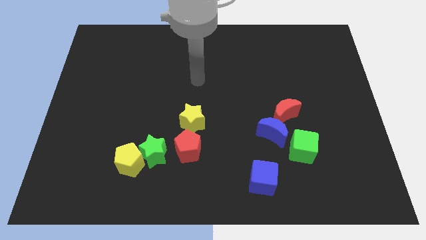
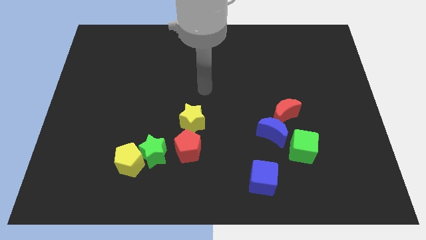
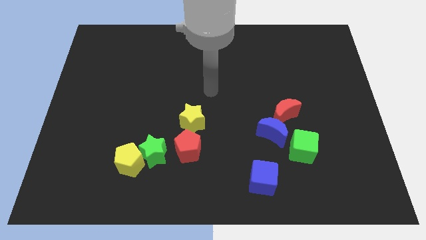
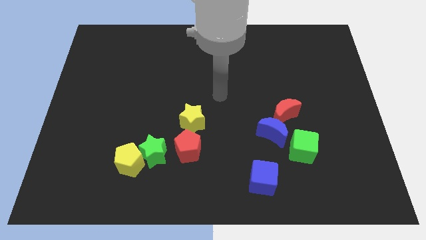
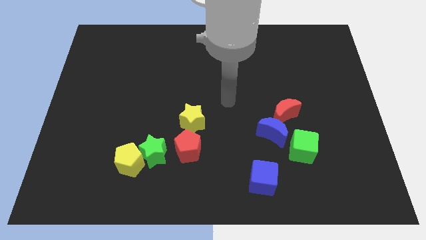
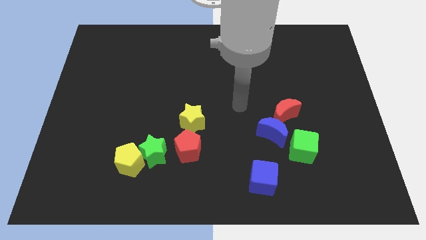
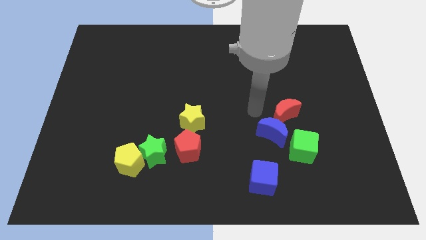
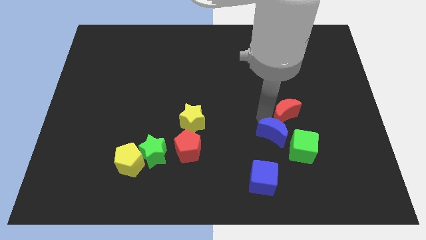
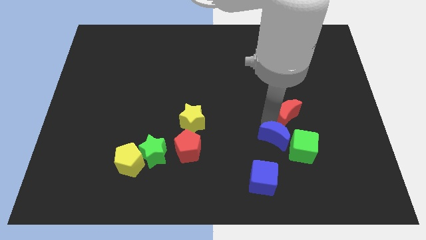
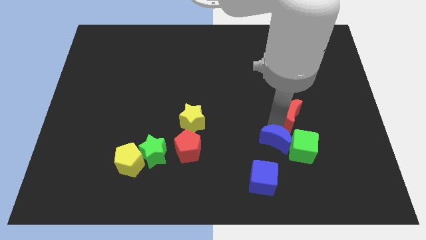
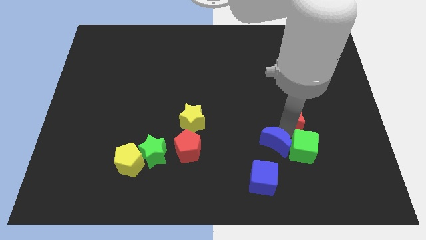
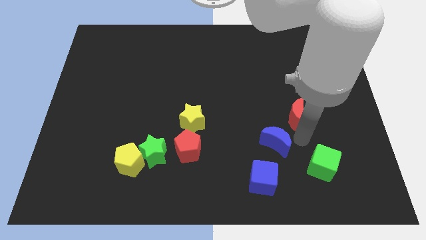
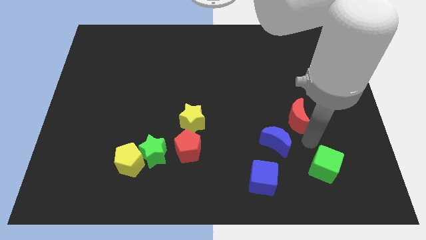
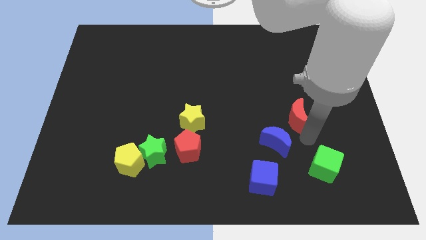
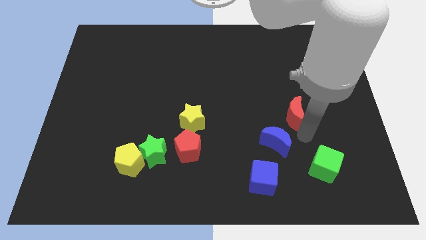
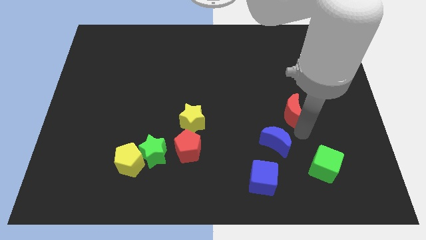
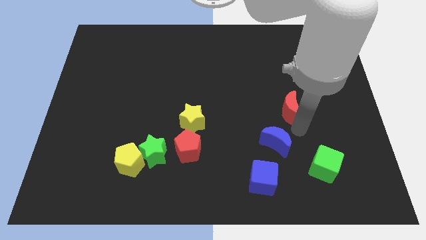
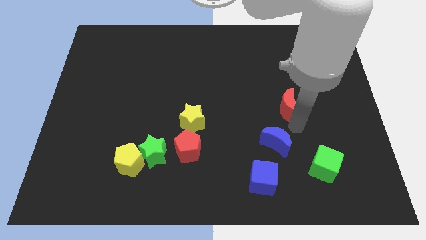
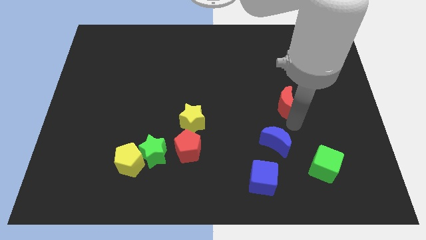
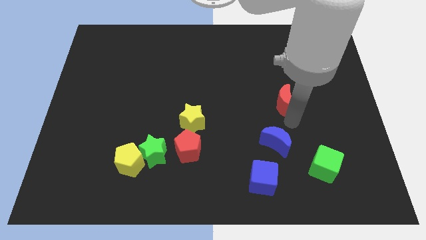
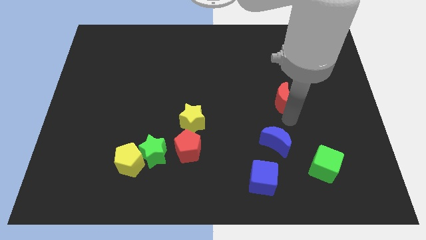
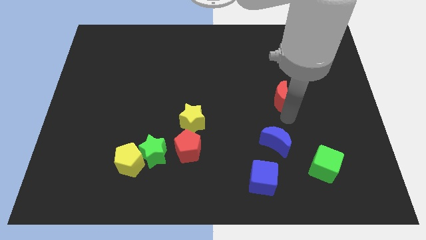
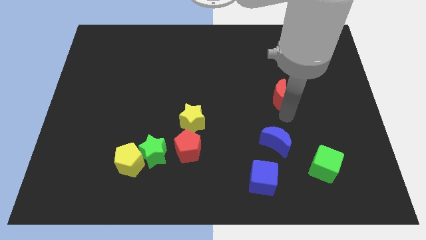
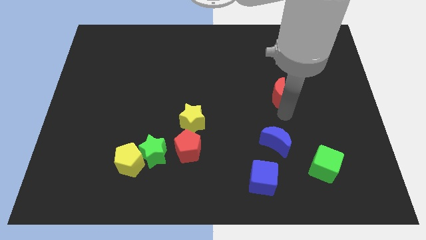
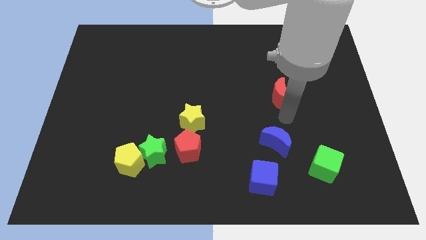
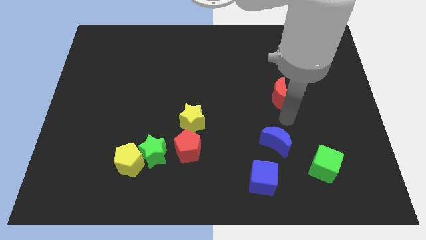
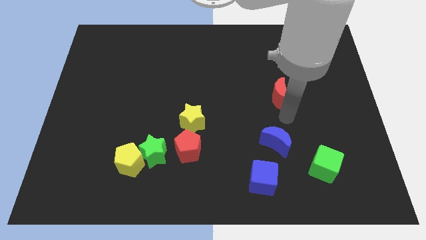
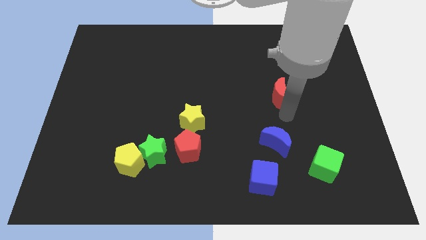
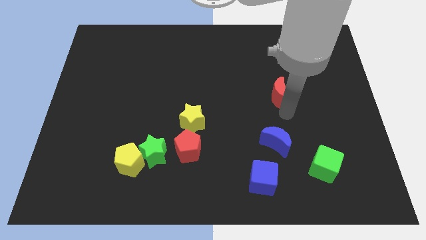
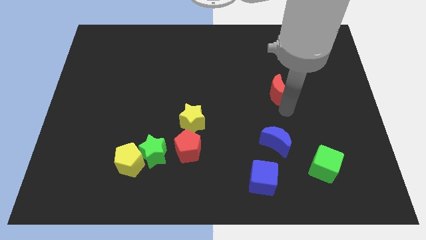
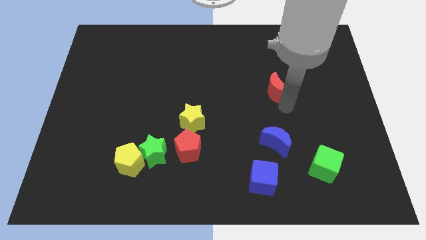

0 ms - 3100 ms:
slightly slide the red moon up

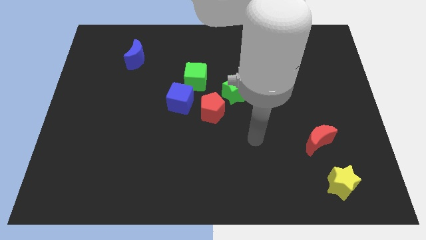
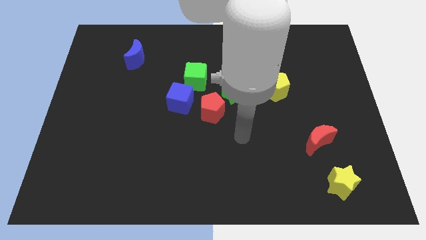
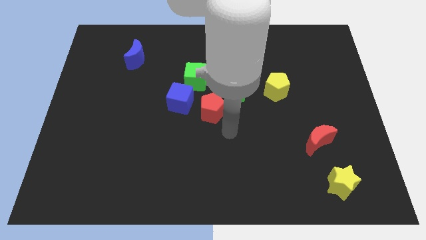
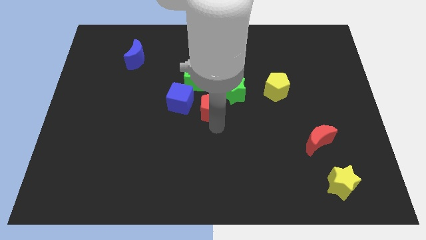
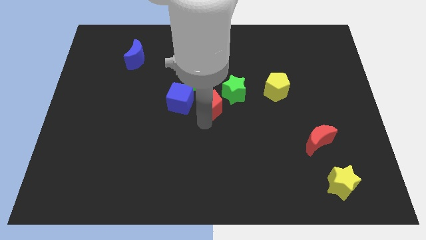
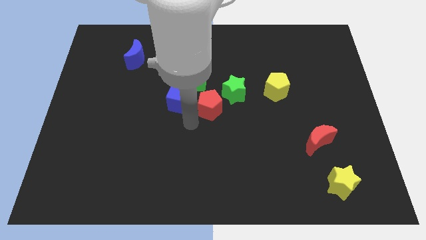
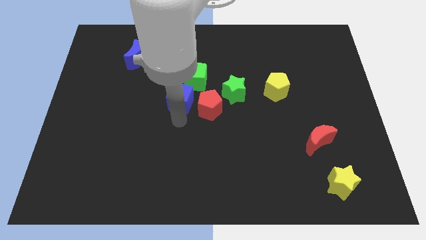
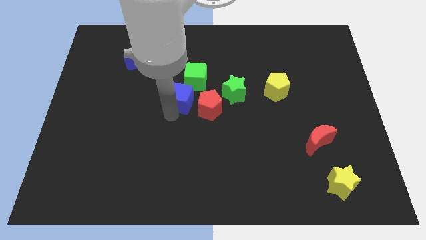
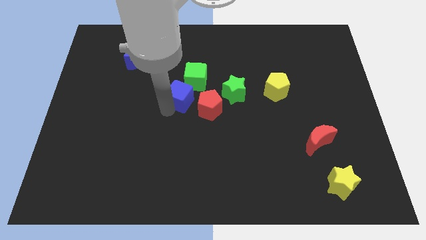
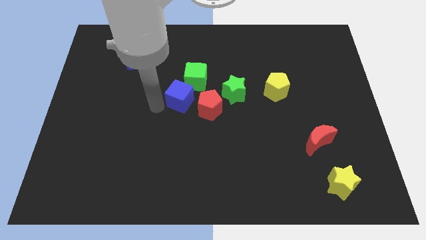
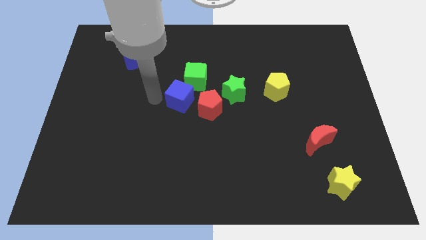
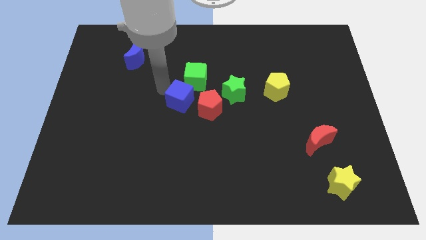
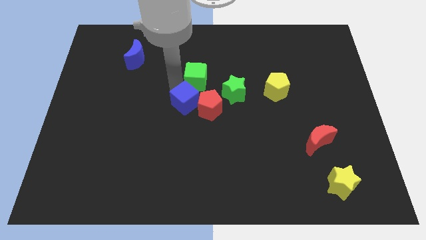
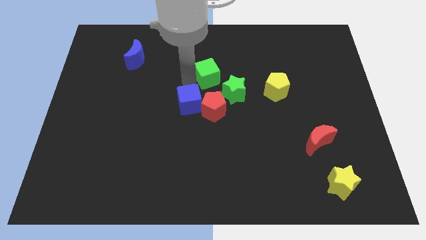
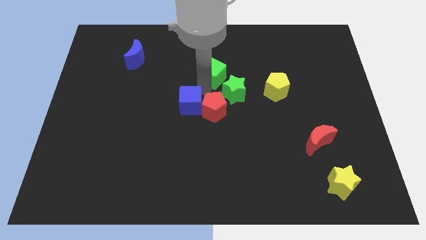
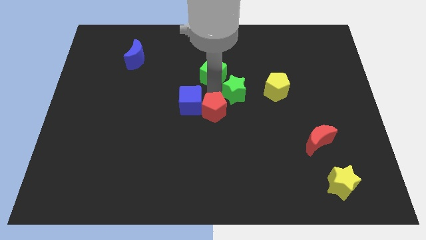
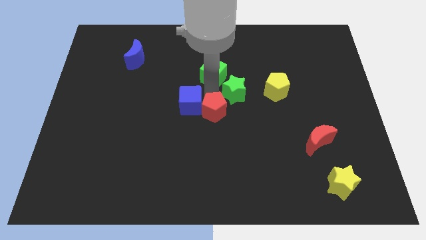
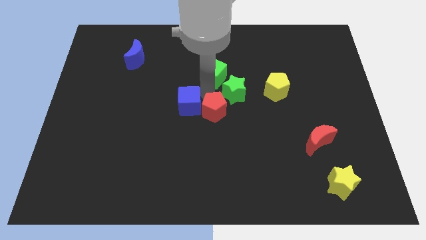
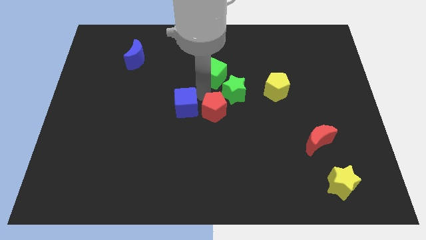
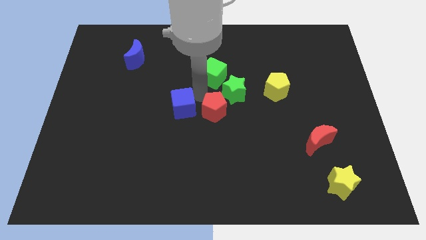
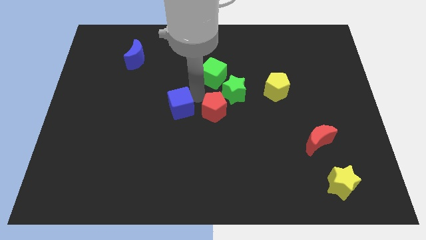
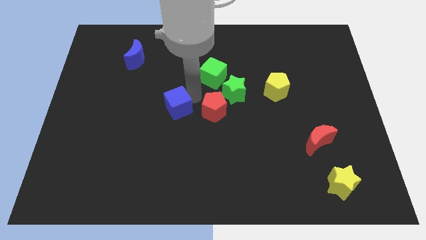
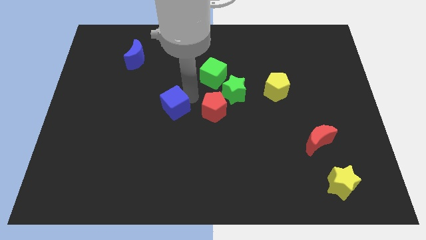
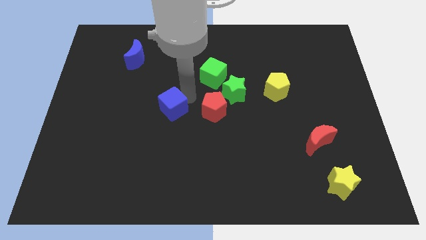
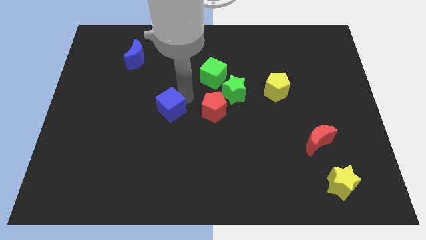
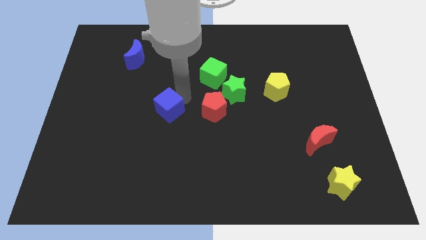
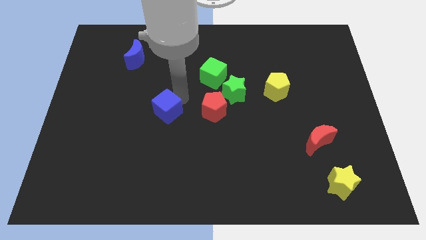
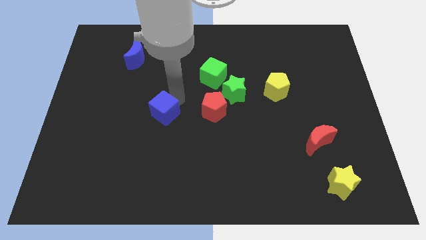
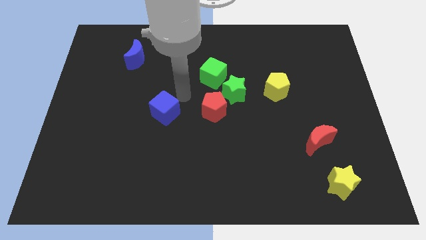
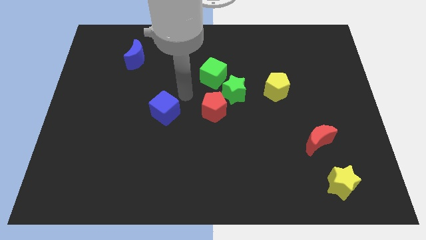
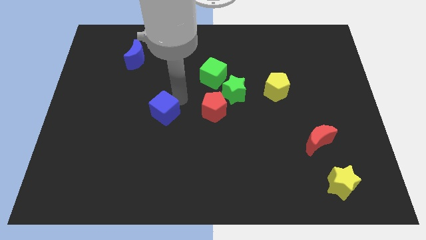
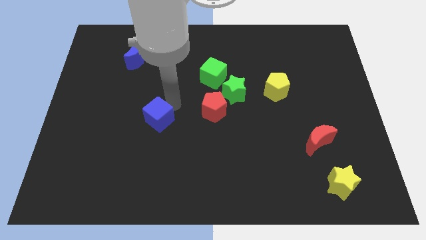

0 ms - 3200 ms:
move the blue cube somewhat down and then left

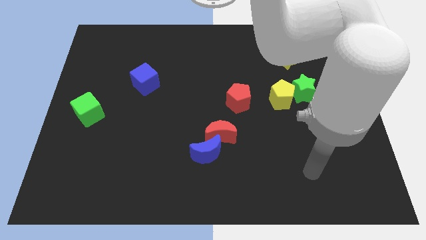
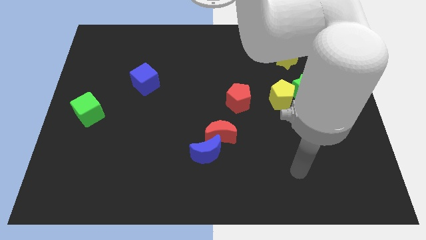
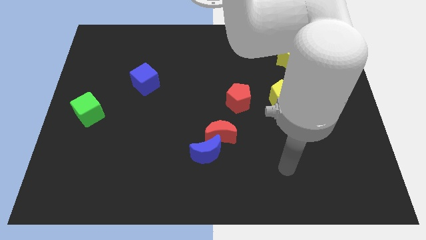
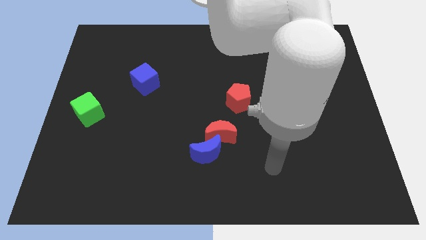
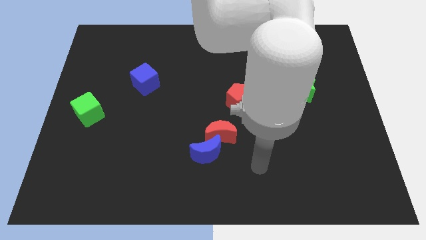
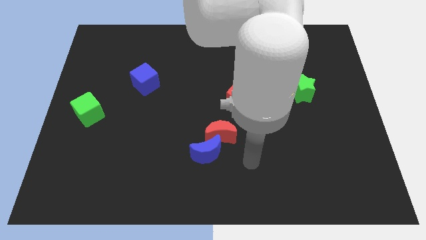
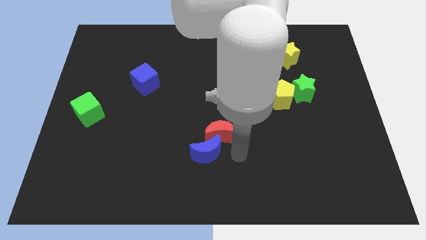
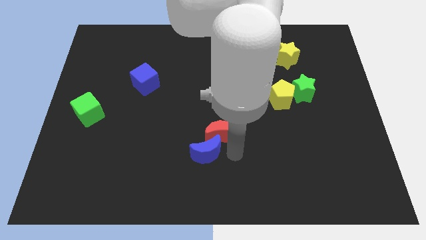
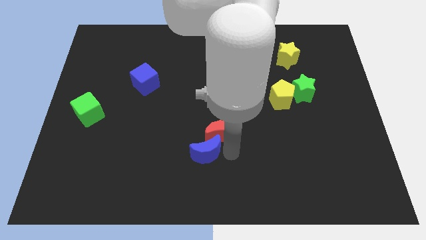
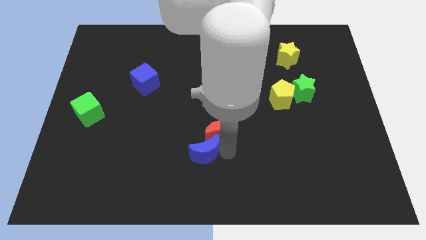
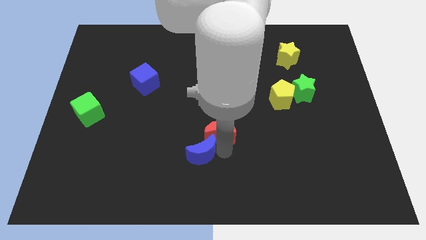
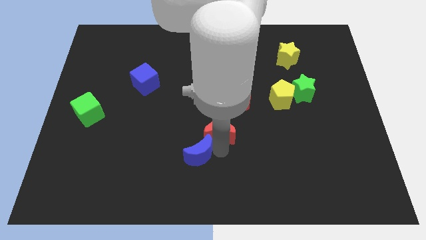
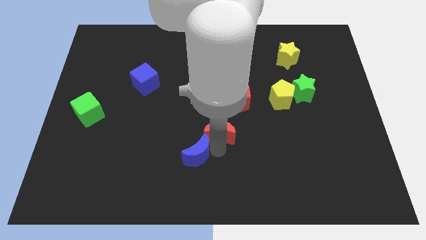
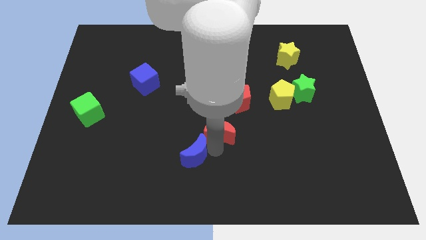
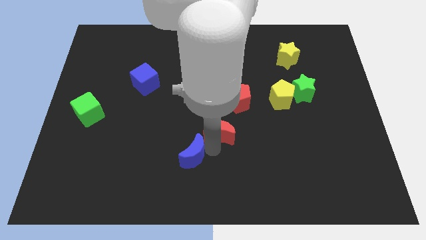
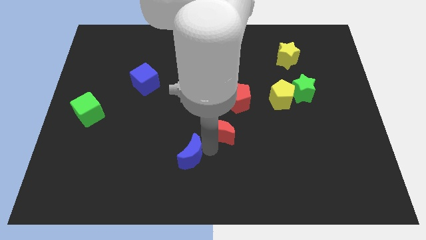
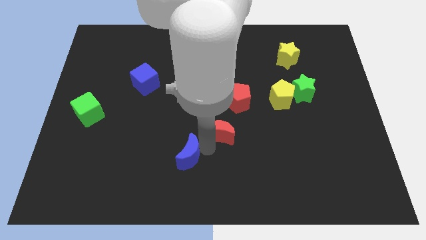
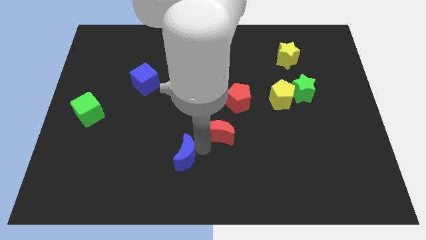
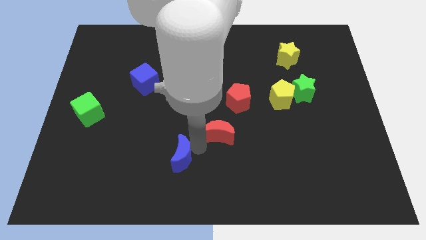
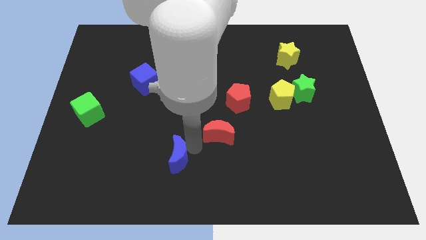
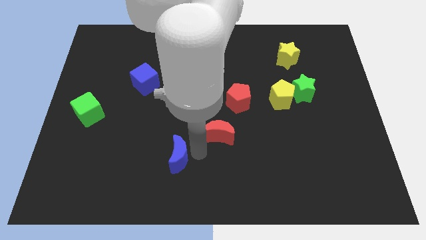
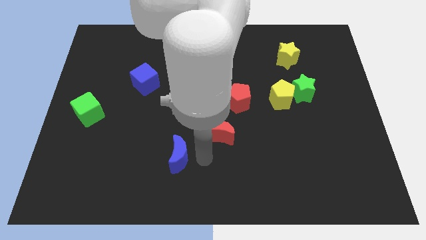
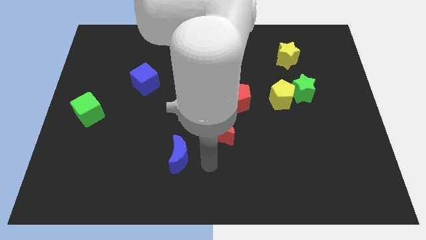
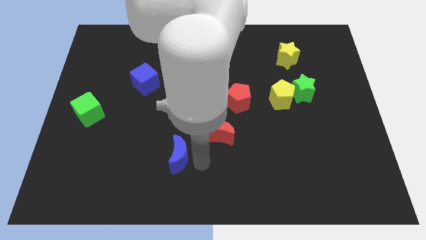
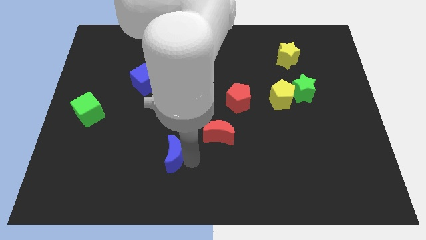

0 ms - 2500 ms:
slide the blue moon a little to the left
